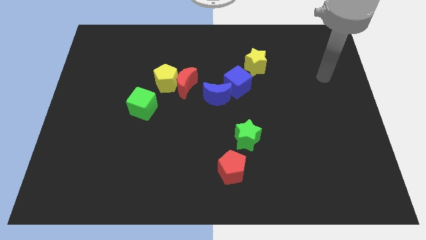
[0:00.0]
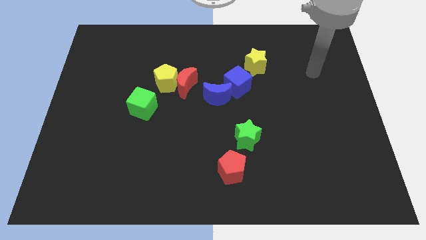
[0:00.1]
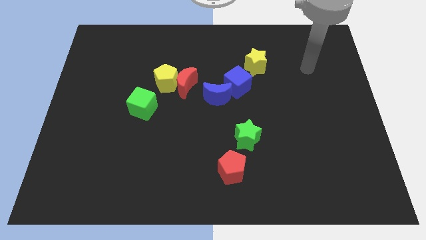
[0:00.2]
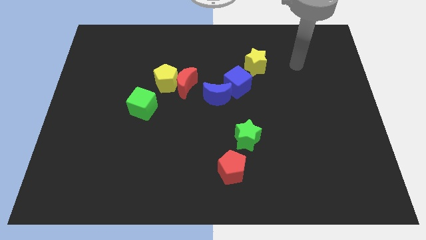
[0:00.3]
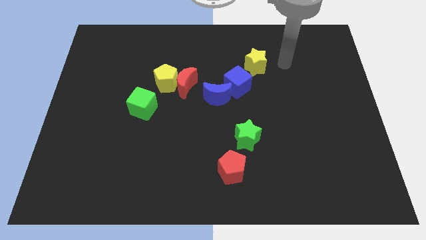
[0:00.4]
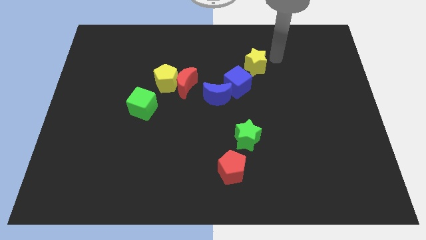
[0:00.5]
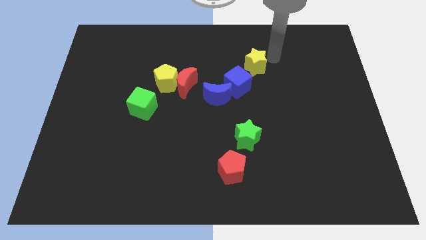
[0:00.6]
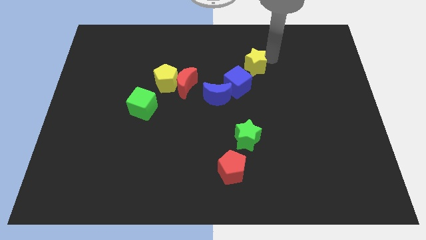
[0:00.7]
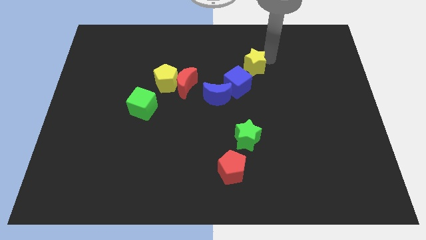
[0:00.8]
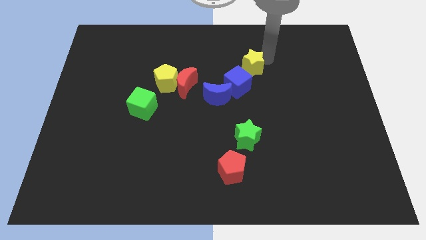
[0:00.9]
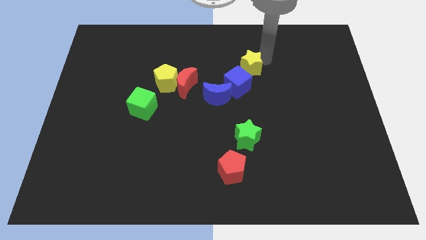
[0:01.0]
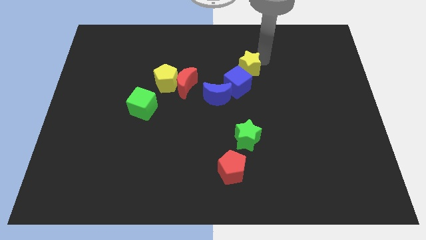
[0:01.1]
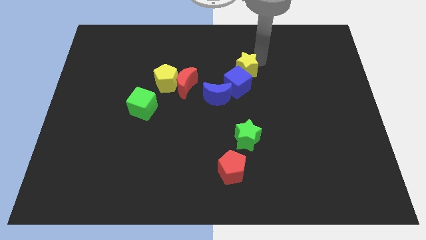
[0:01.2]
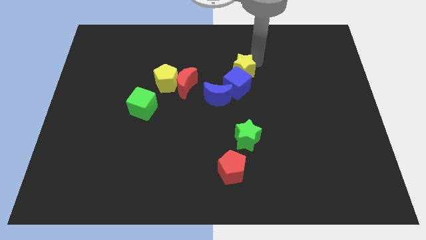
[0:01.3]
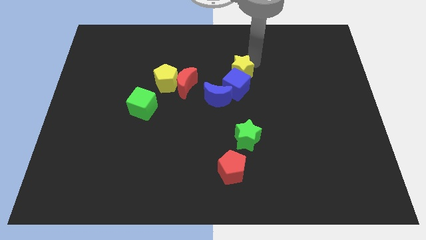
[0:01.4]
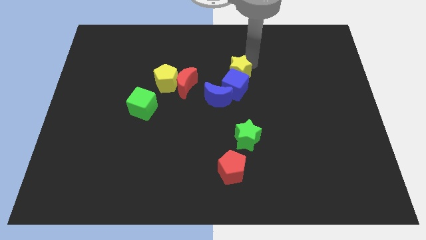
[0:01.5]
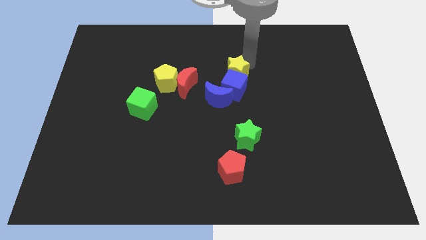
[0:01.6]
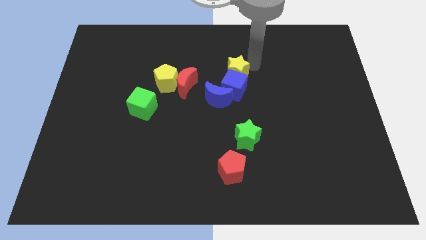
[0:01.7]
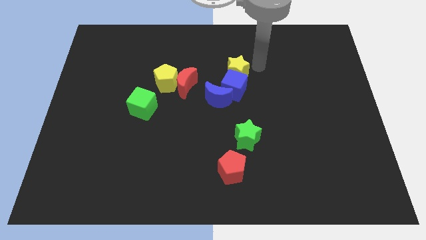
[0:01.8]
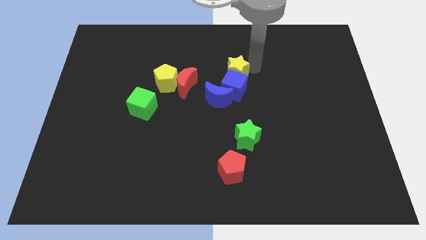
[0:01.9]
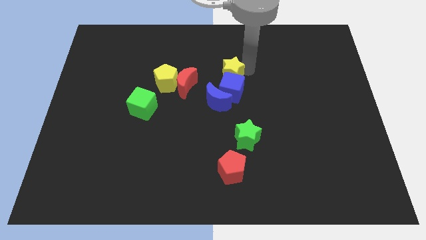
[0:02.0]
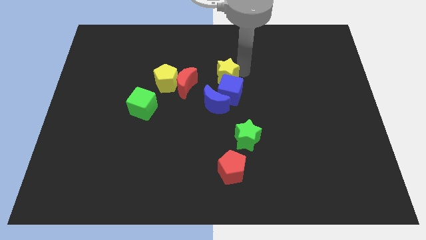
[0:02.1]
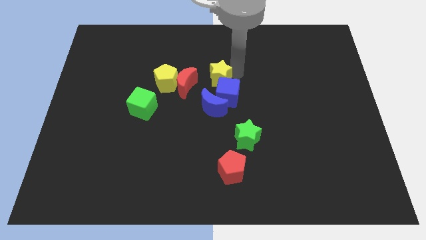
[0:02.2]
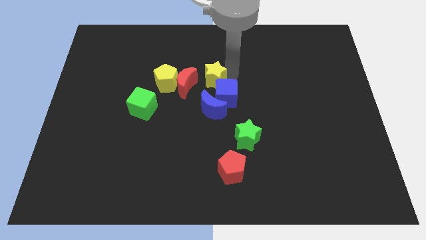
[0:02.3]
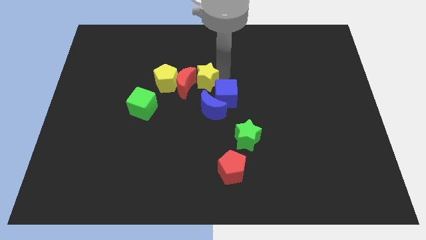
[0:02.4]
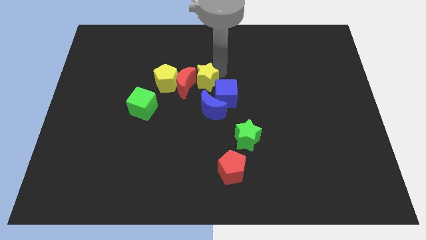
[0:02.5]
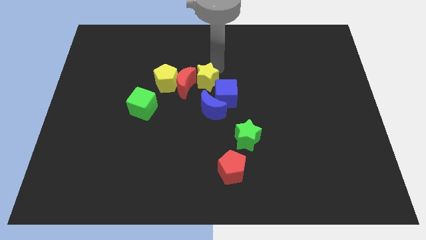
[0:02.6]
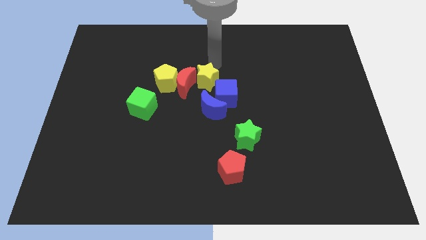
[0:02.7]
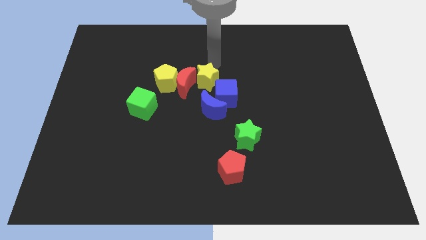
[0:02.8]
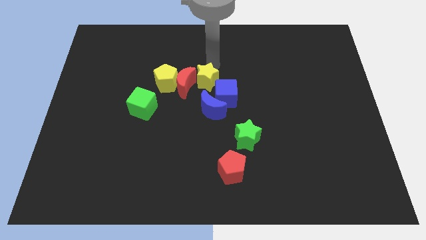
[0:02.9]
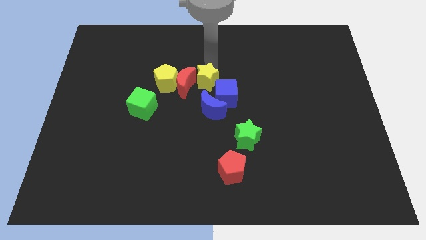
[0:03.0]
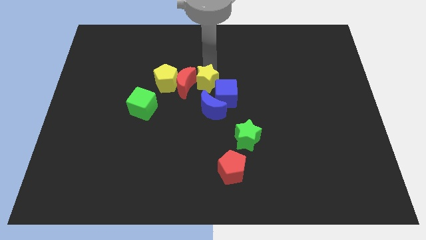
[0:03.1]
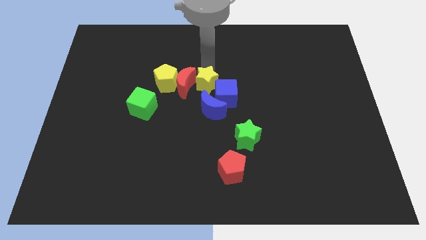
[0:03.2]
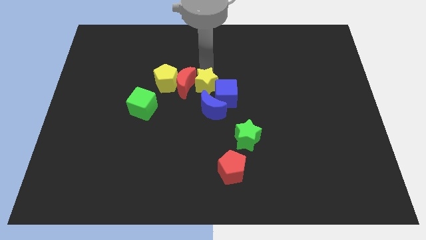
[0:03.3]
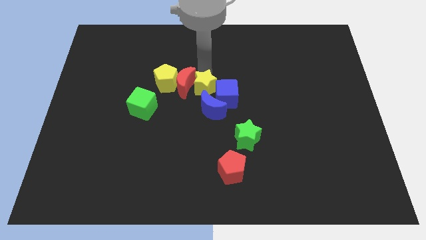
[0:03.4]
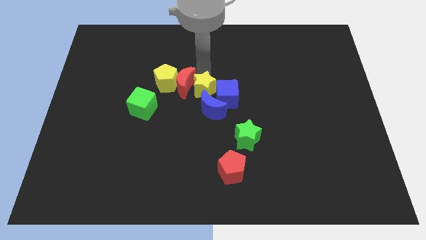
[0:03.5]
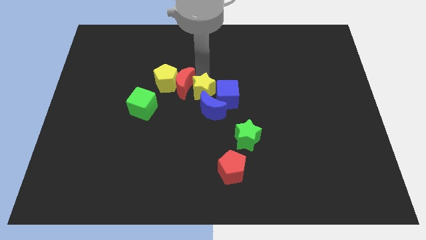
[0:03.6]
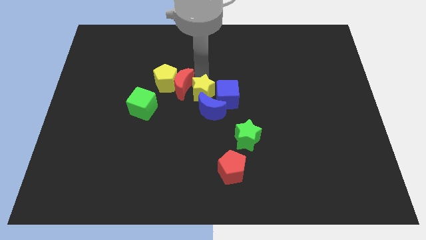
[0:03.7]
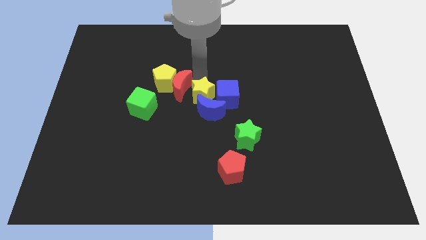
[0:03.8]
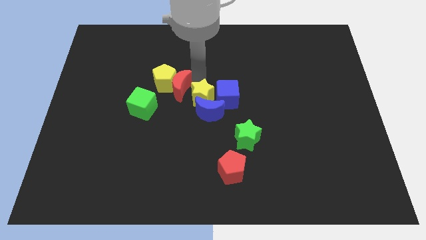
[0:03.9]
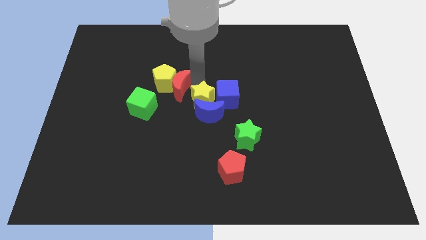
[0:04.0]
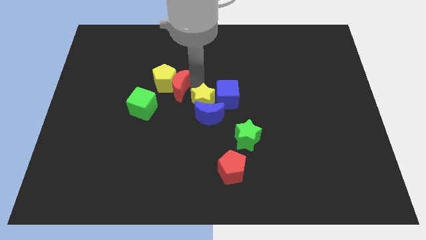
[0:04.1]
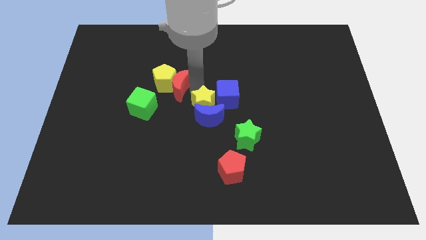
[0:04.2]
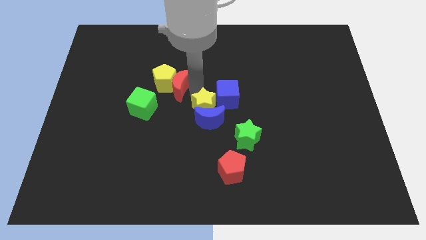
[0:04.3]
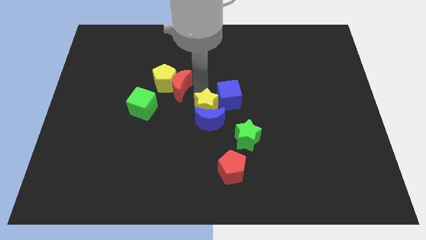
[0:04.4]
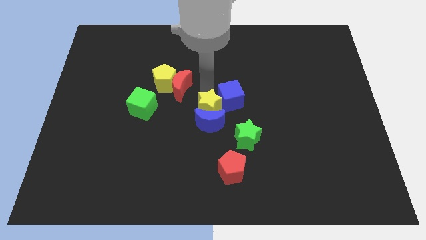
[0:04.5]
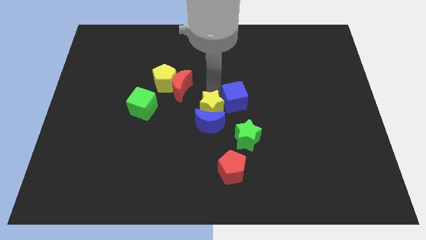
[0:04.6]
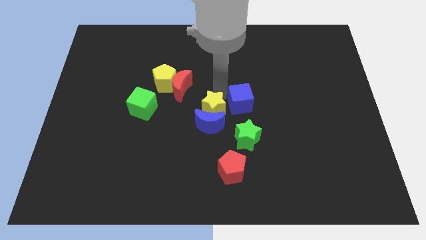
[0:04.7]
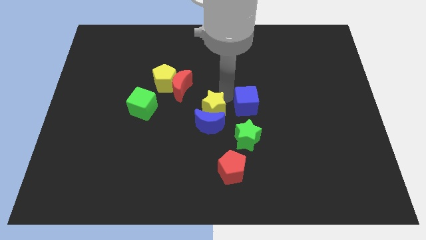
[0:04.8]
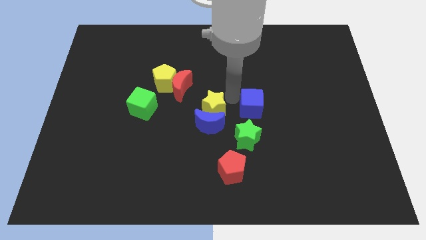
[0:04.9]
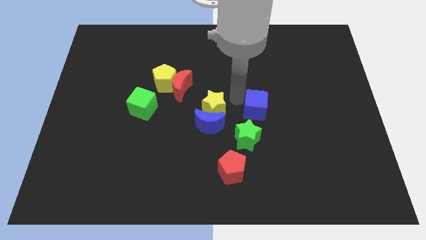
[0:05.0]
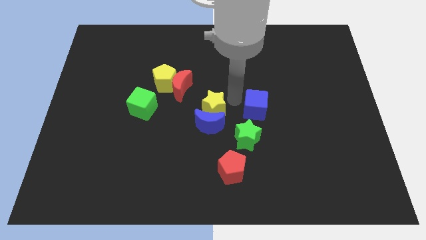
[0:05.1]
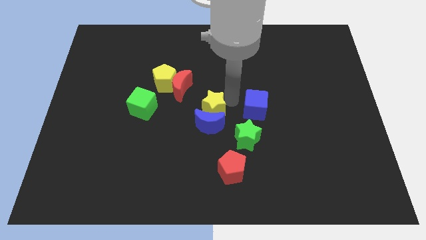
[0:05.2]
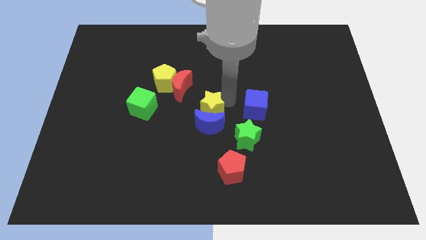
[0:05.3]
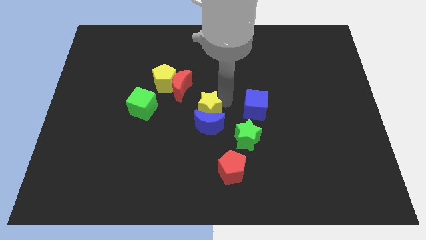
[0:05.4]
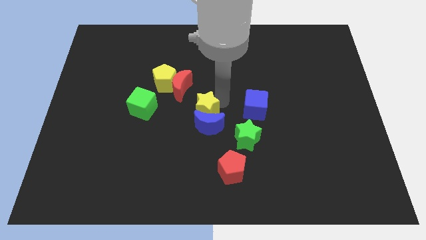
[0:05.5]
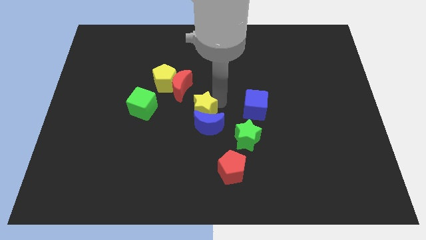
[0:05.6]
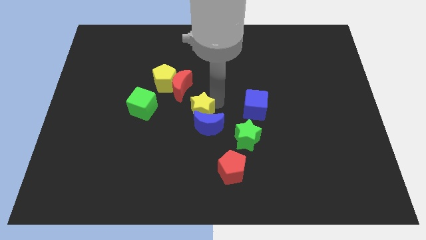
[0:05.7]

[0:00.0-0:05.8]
move the yellow star diagonally downwards and left

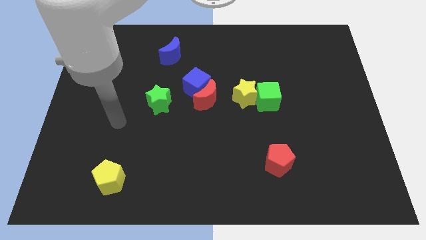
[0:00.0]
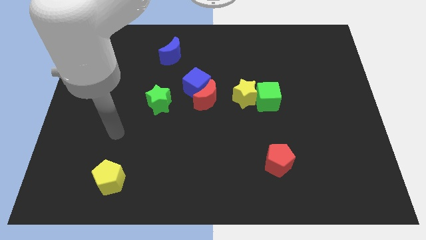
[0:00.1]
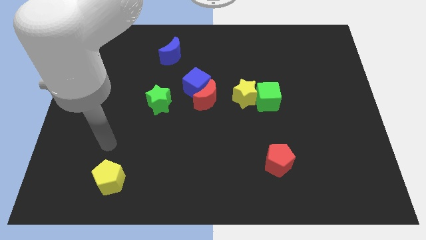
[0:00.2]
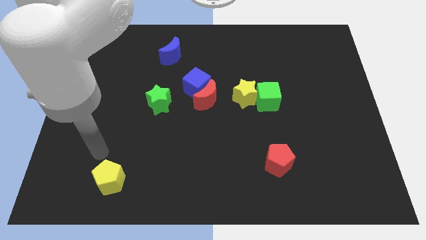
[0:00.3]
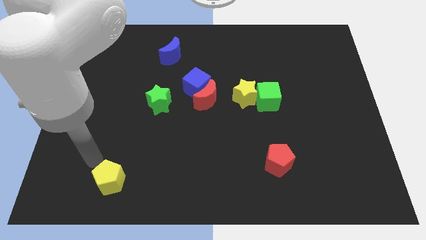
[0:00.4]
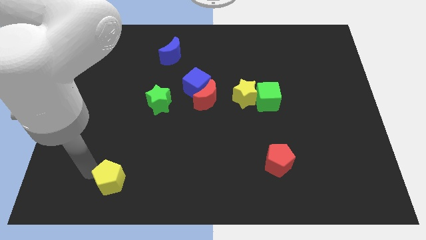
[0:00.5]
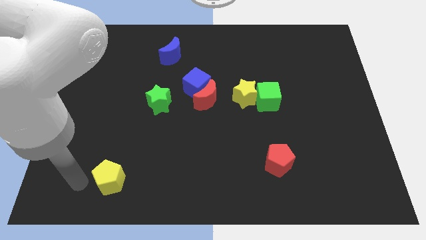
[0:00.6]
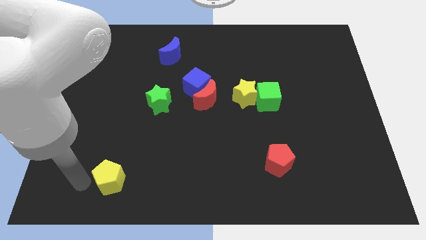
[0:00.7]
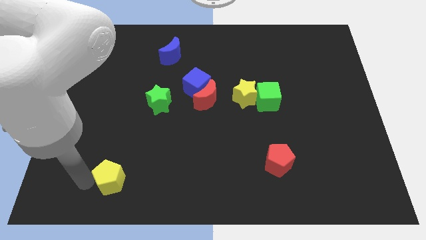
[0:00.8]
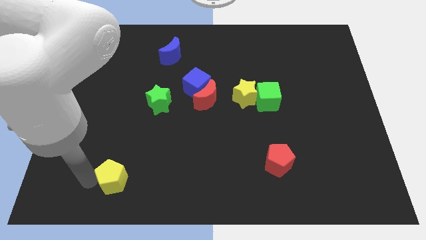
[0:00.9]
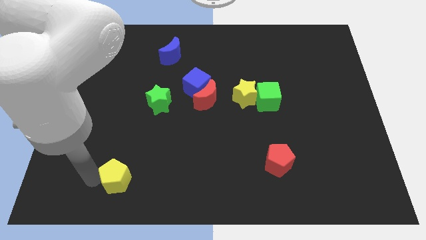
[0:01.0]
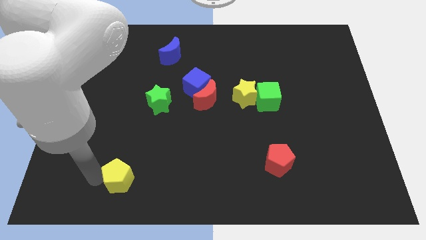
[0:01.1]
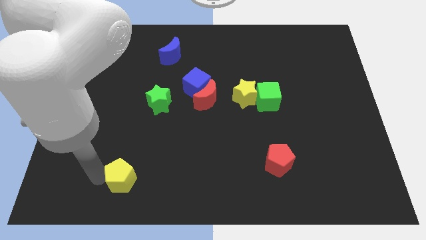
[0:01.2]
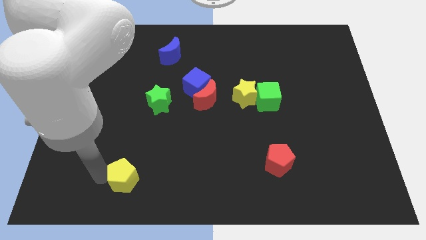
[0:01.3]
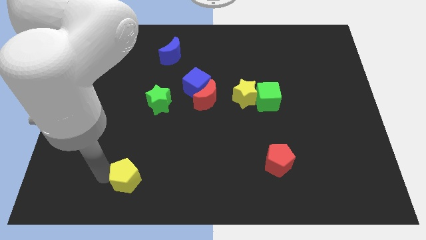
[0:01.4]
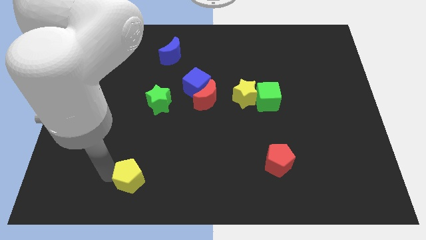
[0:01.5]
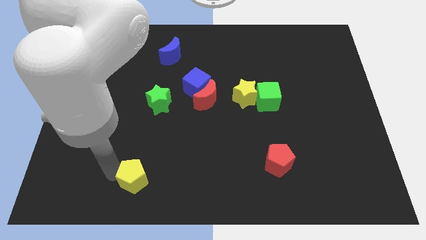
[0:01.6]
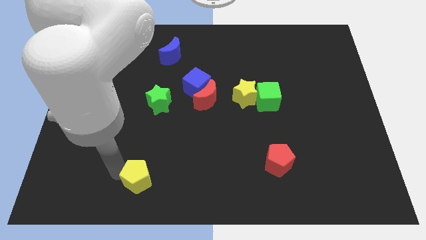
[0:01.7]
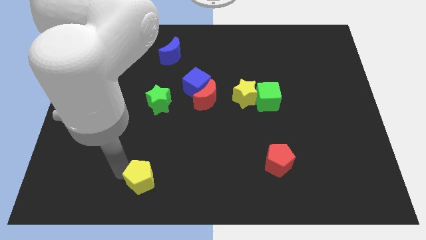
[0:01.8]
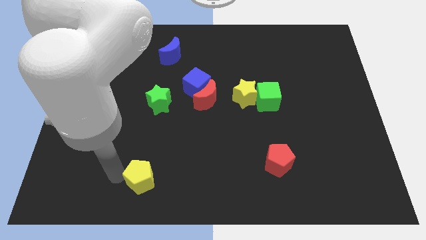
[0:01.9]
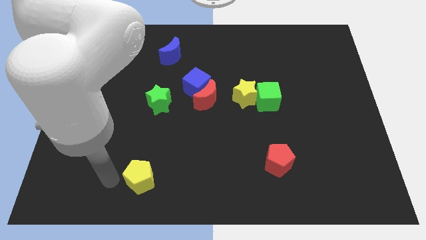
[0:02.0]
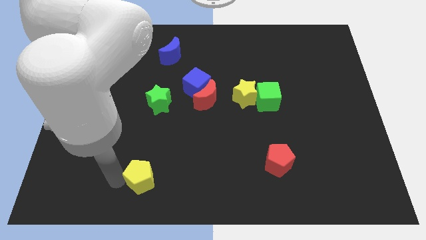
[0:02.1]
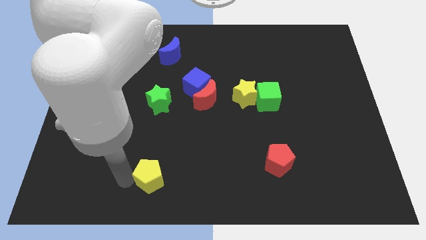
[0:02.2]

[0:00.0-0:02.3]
slide the yellow pentagon to the right a little

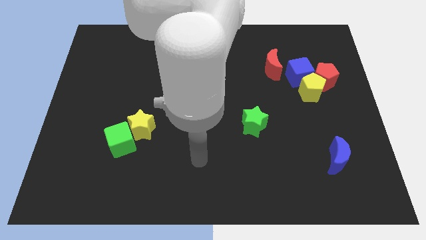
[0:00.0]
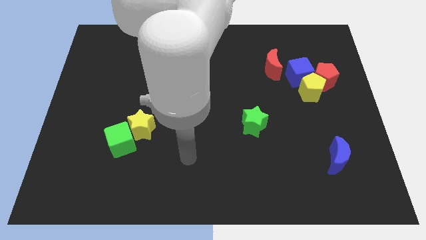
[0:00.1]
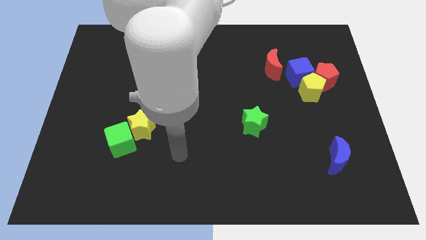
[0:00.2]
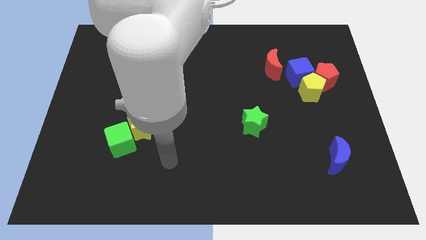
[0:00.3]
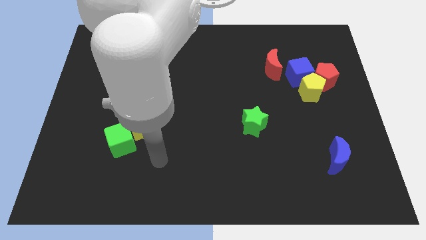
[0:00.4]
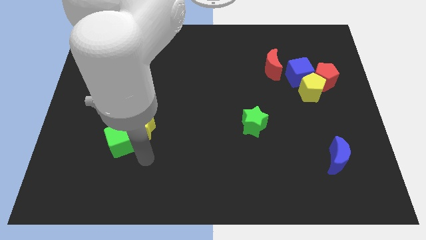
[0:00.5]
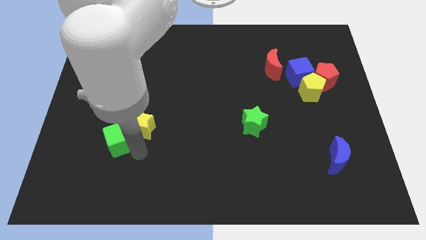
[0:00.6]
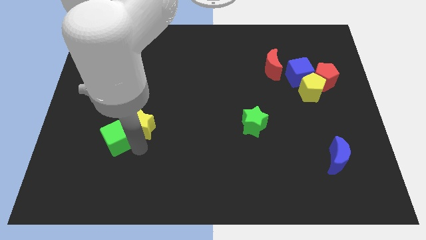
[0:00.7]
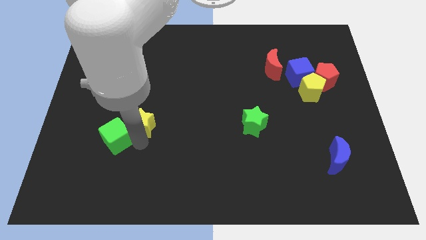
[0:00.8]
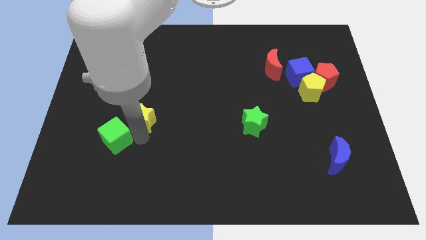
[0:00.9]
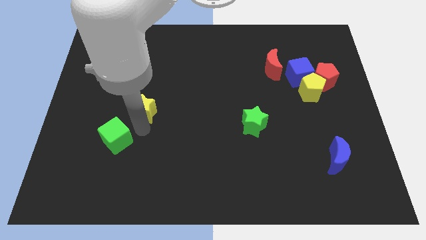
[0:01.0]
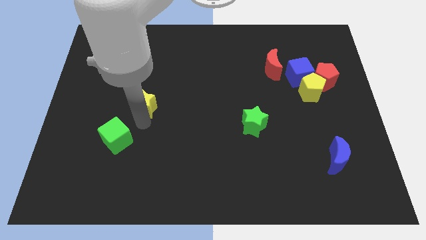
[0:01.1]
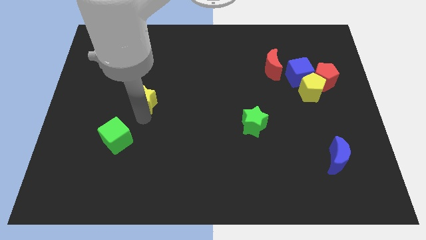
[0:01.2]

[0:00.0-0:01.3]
slightly move the yellow star up
